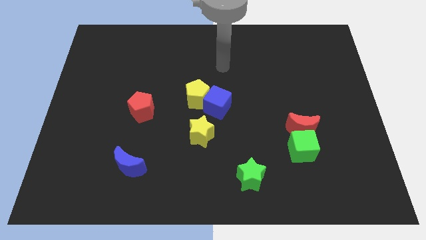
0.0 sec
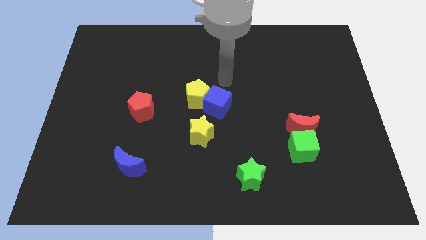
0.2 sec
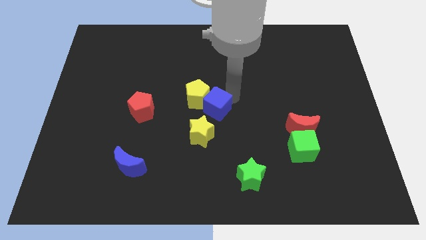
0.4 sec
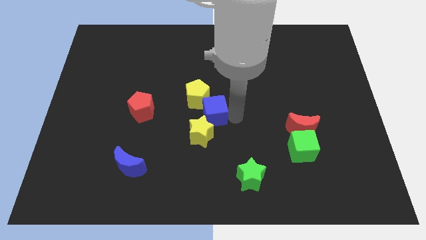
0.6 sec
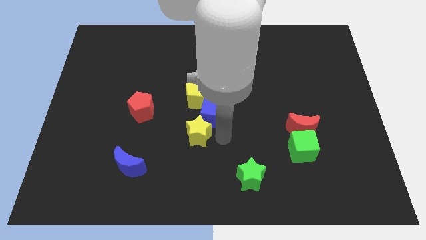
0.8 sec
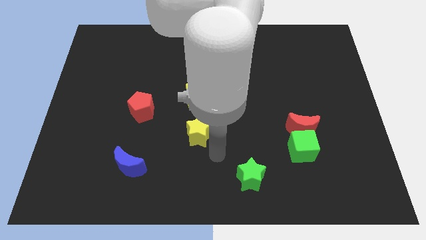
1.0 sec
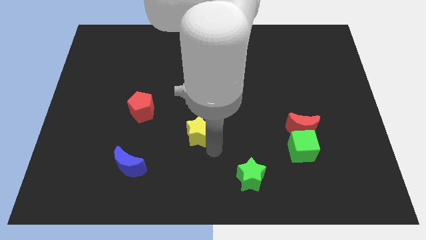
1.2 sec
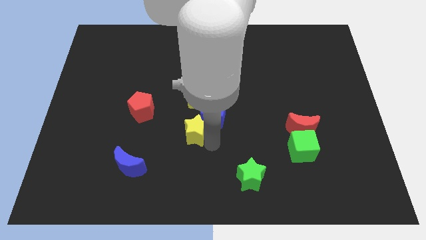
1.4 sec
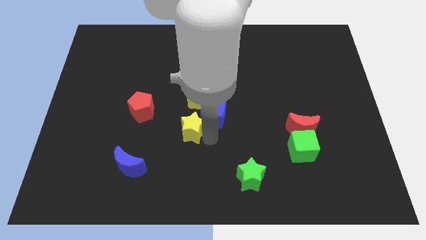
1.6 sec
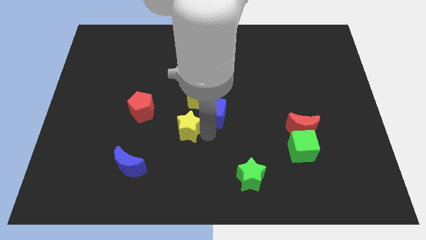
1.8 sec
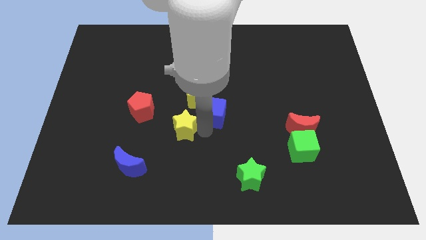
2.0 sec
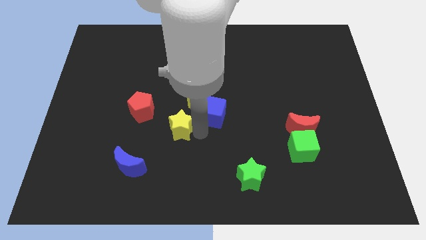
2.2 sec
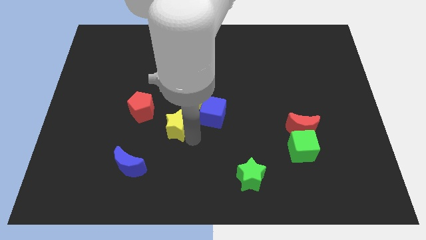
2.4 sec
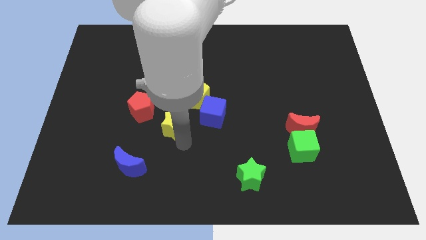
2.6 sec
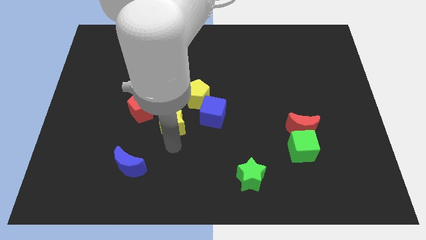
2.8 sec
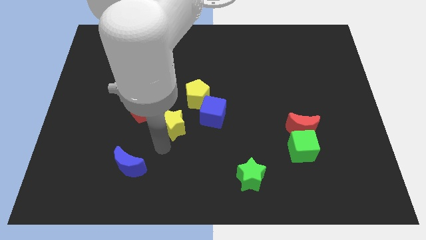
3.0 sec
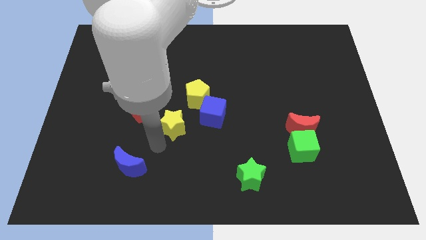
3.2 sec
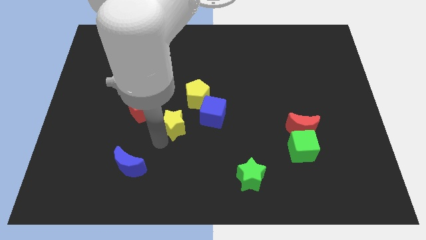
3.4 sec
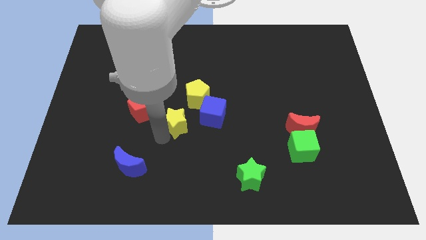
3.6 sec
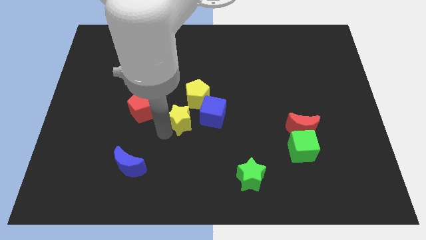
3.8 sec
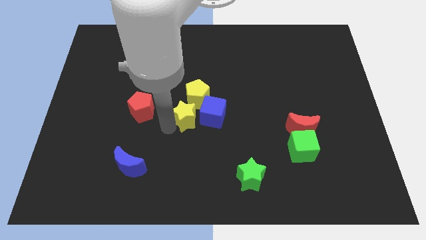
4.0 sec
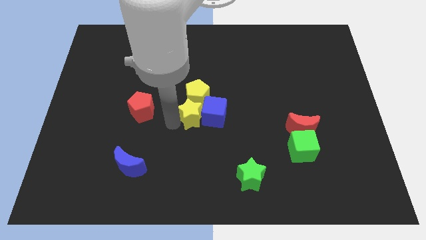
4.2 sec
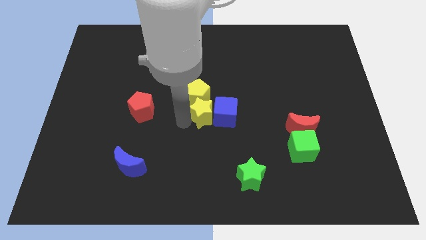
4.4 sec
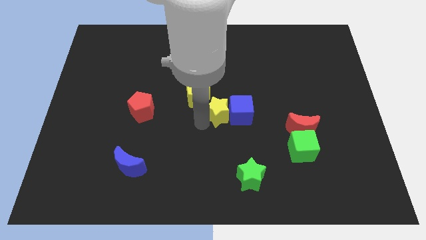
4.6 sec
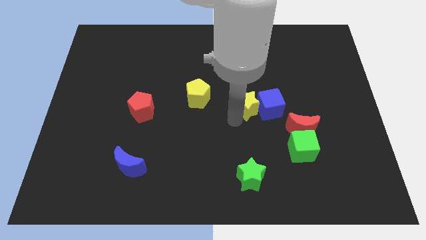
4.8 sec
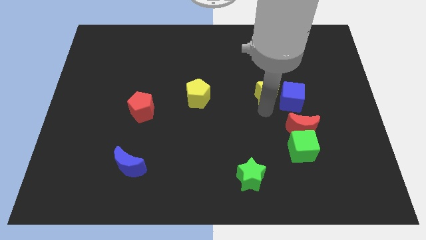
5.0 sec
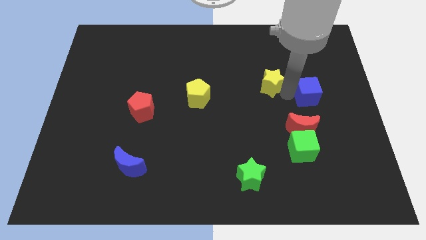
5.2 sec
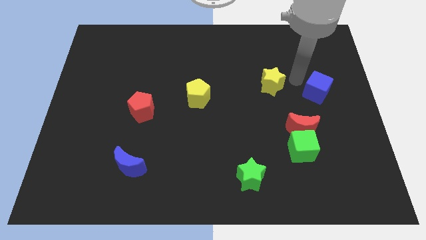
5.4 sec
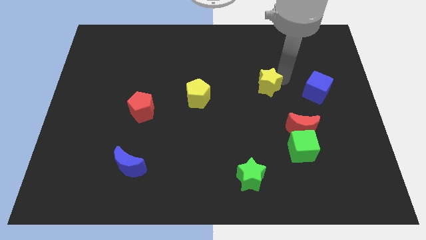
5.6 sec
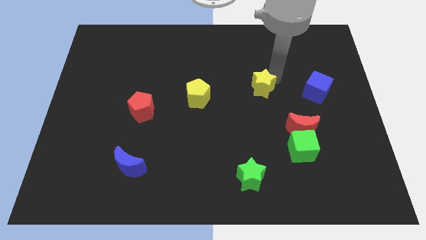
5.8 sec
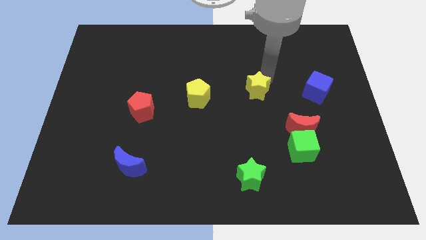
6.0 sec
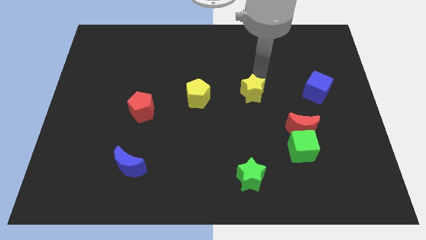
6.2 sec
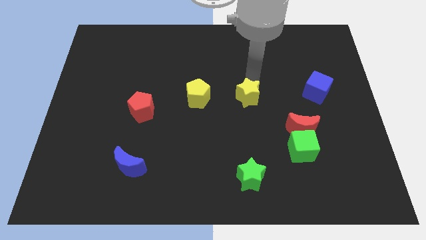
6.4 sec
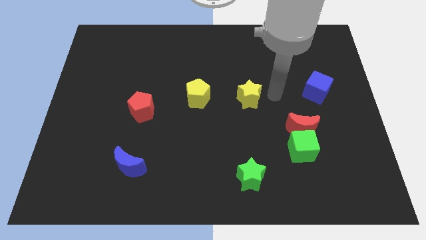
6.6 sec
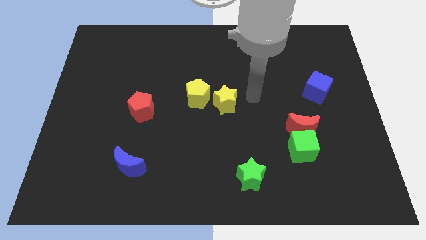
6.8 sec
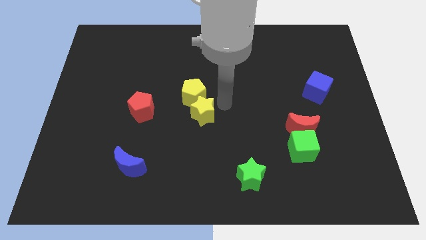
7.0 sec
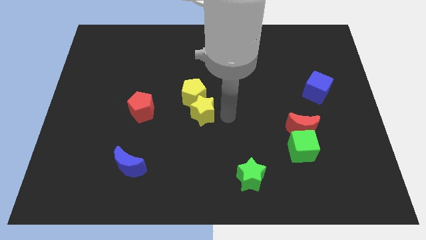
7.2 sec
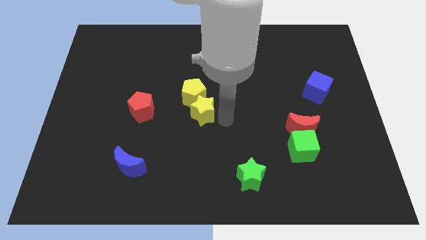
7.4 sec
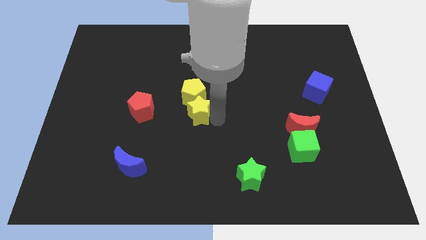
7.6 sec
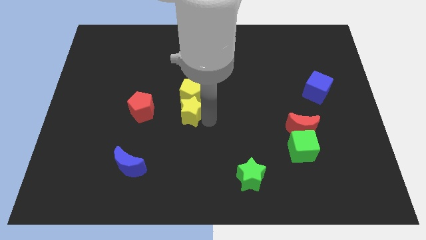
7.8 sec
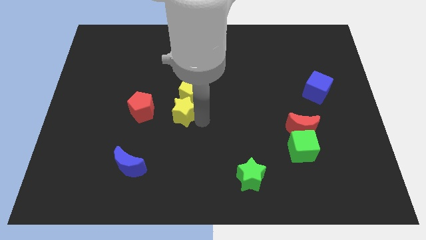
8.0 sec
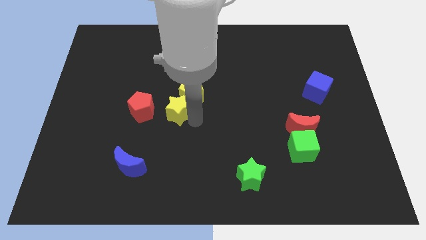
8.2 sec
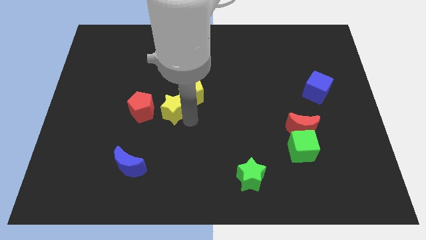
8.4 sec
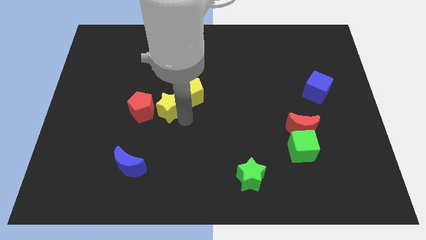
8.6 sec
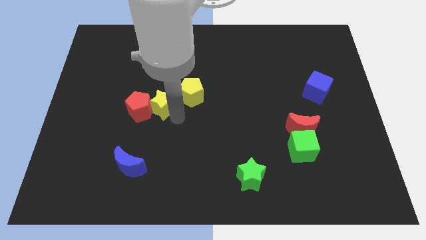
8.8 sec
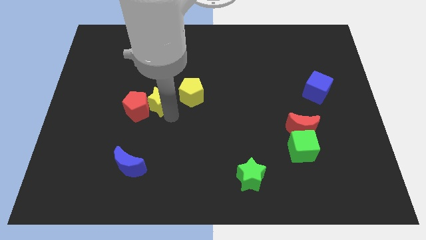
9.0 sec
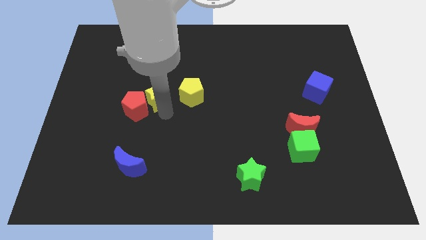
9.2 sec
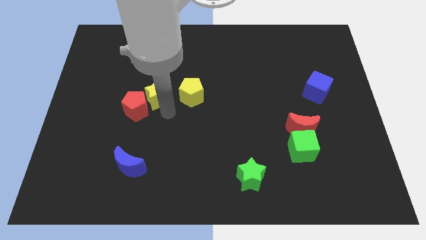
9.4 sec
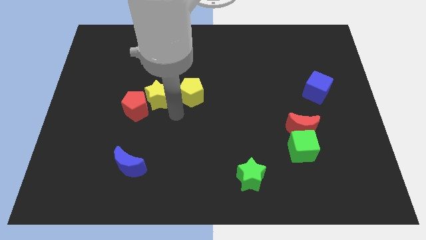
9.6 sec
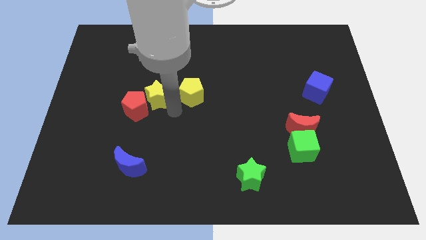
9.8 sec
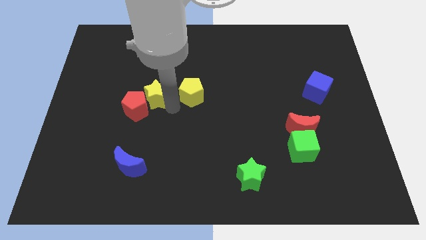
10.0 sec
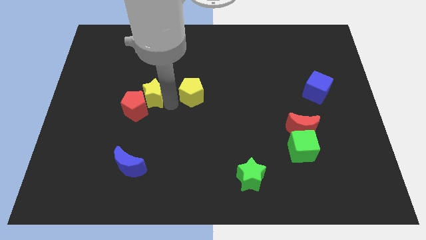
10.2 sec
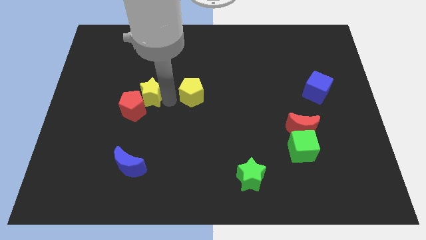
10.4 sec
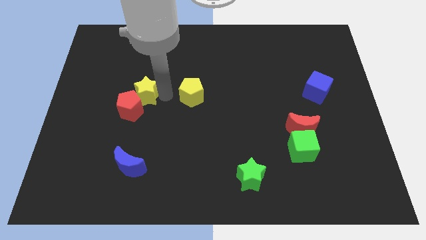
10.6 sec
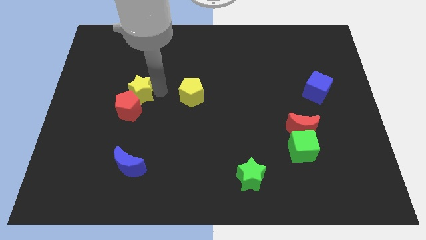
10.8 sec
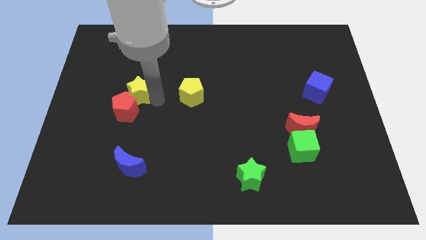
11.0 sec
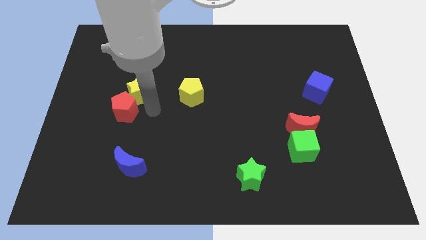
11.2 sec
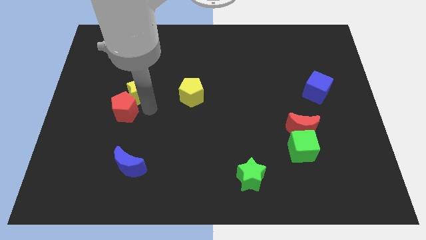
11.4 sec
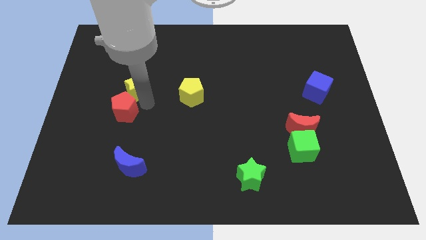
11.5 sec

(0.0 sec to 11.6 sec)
slide the yellow star diagonally upwards and left

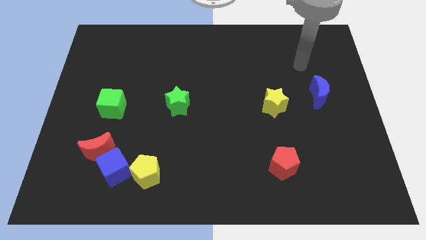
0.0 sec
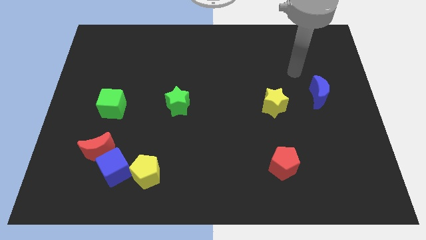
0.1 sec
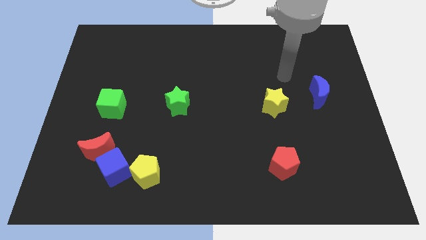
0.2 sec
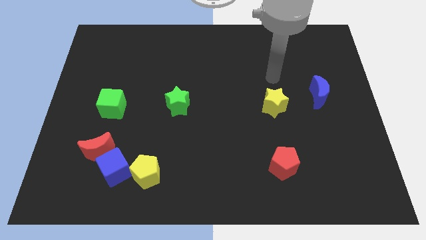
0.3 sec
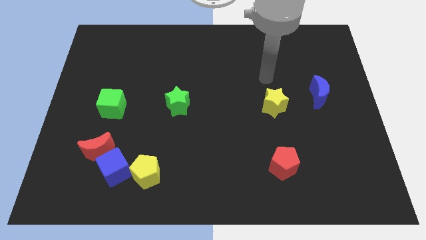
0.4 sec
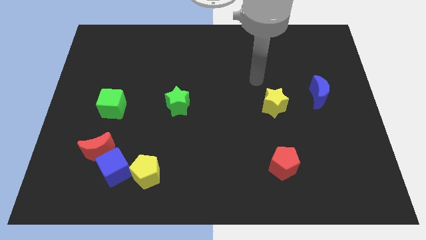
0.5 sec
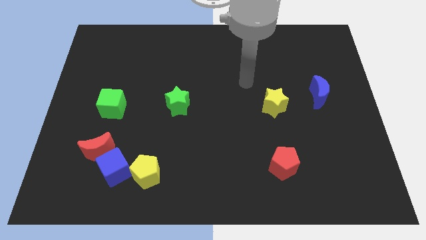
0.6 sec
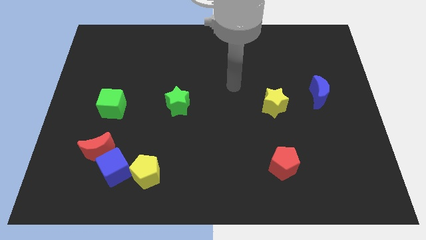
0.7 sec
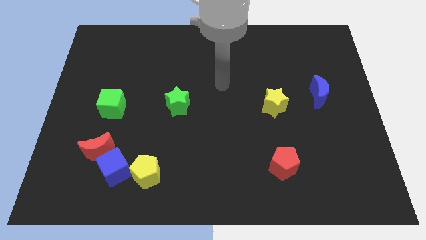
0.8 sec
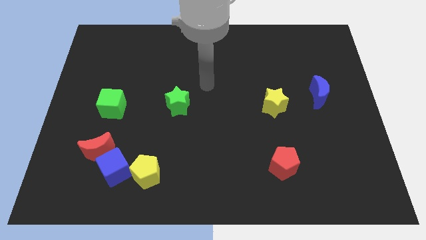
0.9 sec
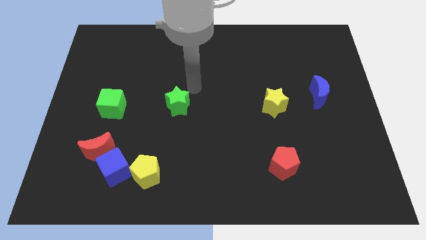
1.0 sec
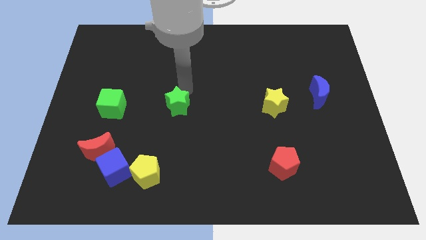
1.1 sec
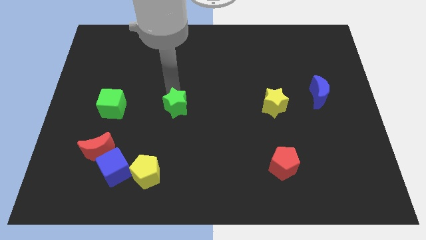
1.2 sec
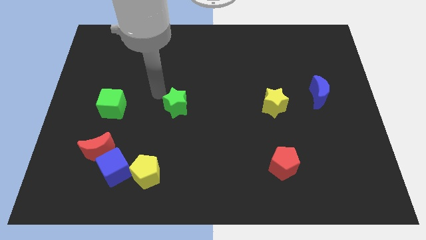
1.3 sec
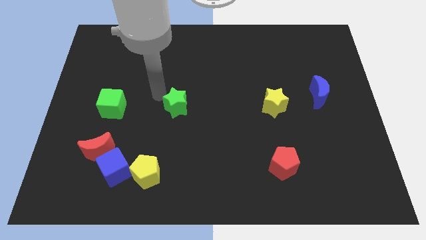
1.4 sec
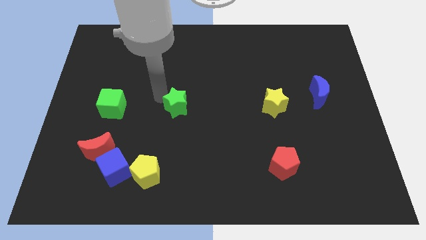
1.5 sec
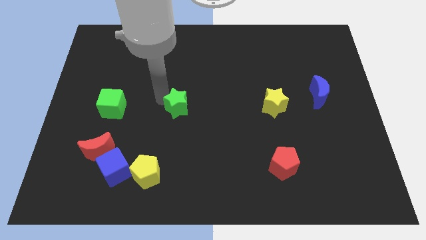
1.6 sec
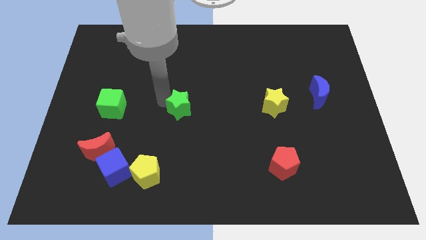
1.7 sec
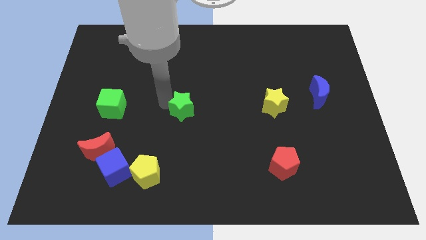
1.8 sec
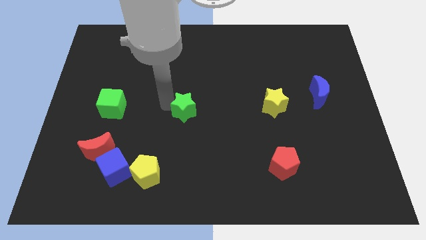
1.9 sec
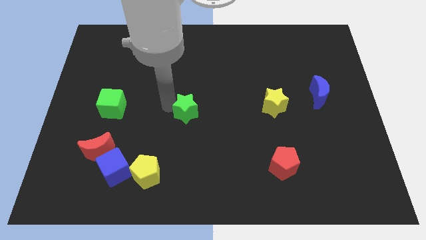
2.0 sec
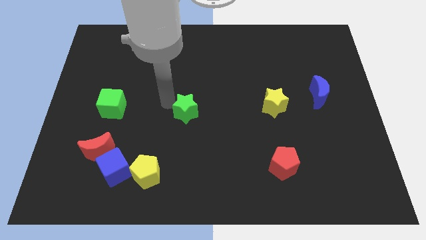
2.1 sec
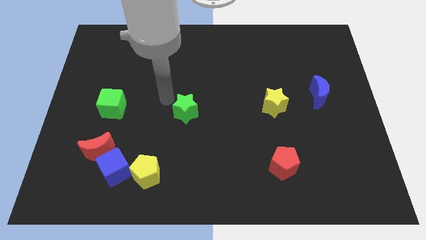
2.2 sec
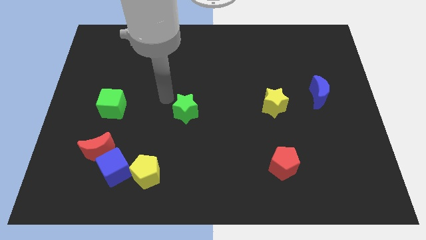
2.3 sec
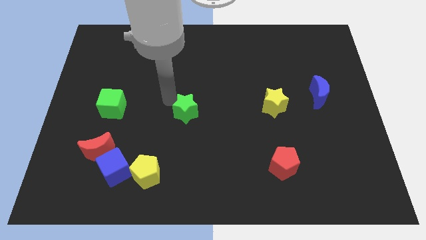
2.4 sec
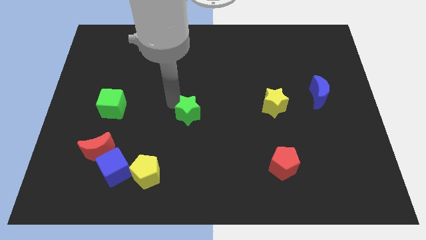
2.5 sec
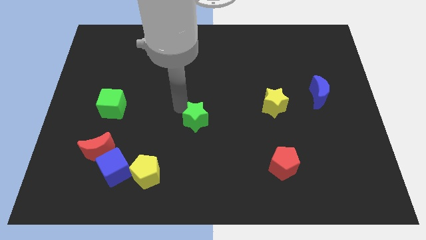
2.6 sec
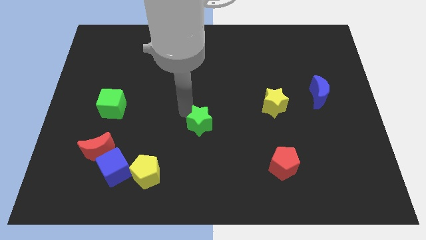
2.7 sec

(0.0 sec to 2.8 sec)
move the green star a little downwards and right diagonally
